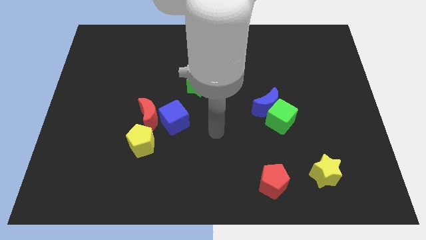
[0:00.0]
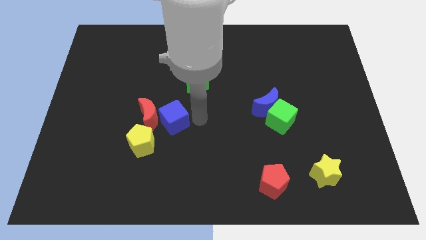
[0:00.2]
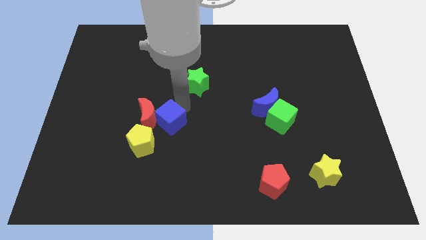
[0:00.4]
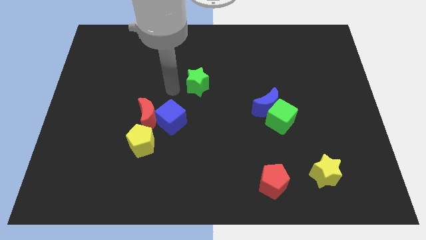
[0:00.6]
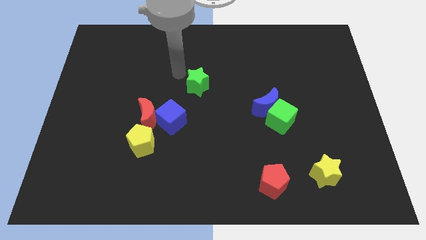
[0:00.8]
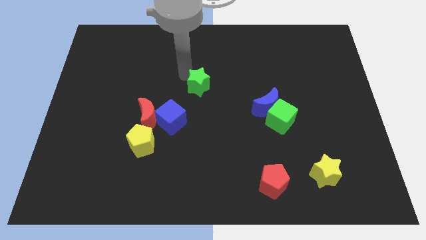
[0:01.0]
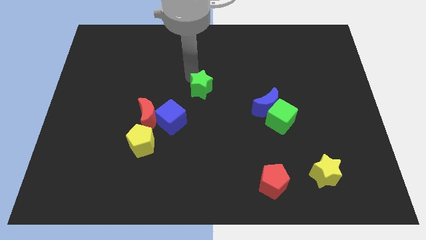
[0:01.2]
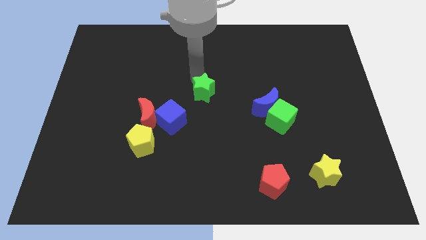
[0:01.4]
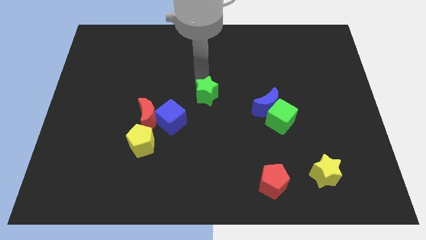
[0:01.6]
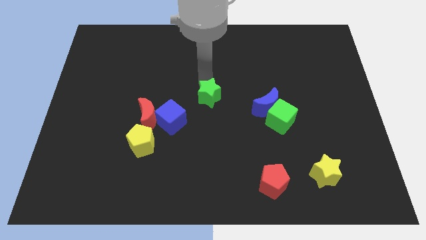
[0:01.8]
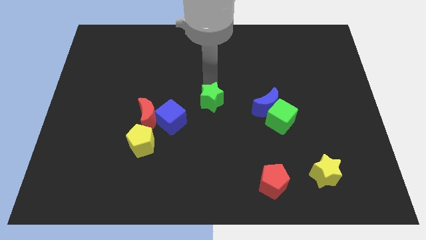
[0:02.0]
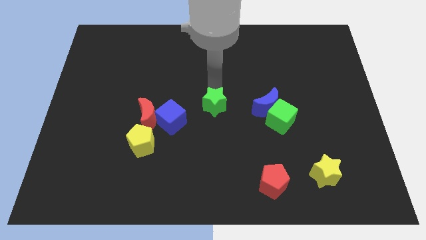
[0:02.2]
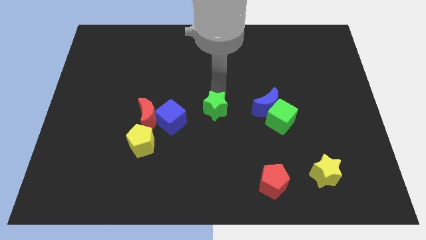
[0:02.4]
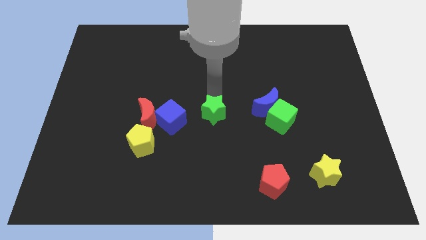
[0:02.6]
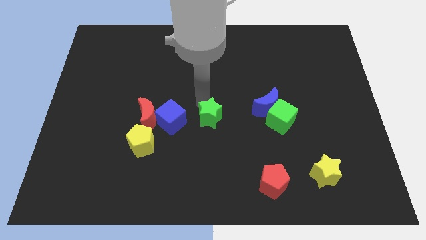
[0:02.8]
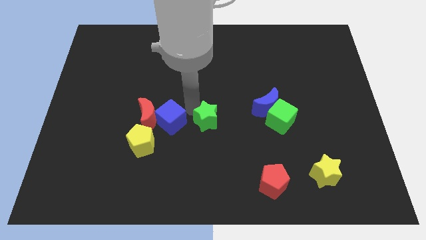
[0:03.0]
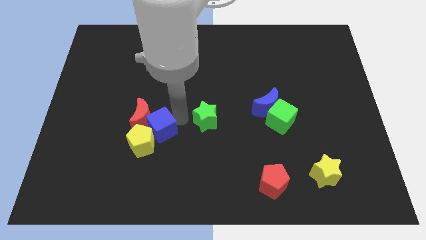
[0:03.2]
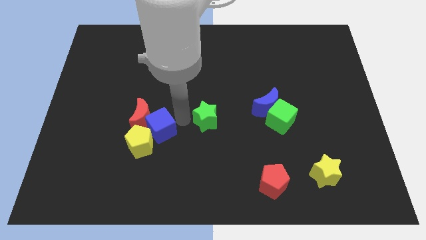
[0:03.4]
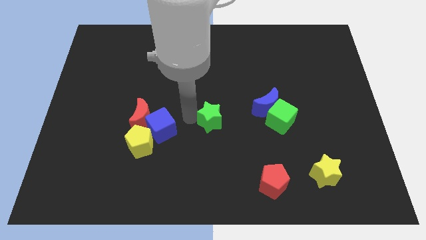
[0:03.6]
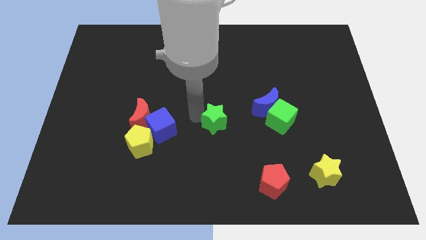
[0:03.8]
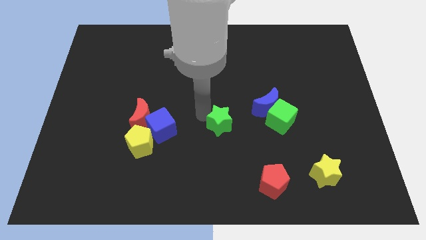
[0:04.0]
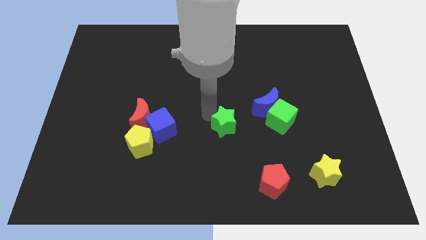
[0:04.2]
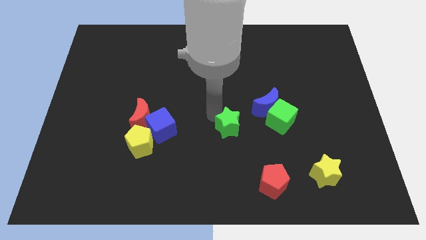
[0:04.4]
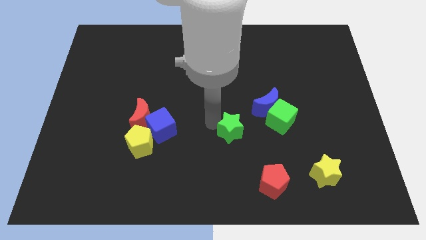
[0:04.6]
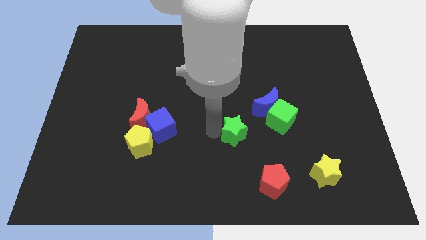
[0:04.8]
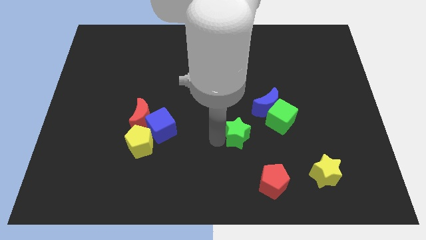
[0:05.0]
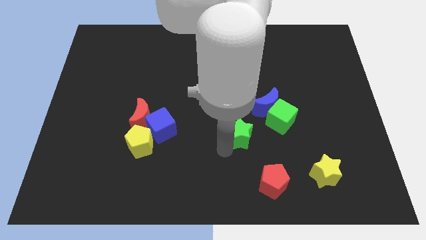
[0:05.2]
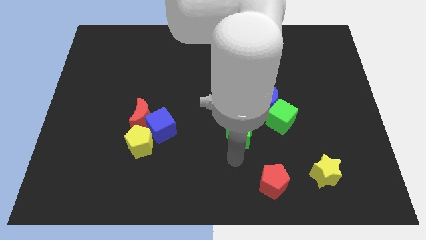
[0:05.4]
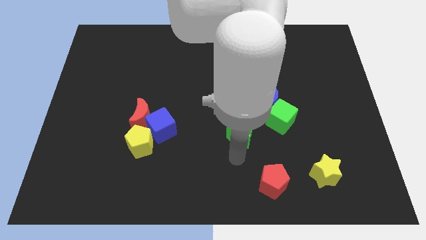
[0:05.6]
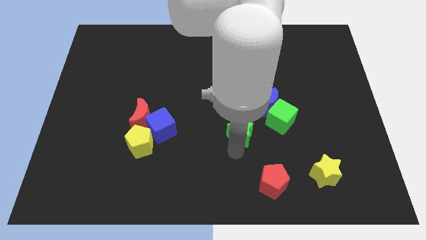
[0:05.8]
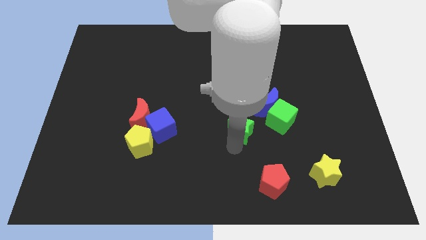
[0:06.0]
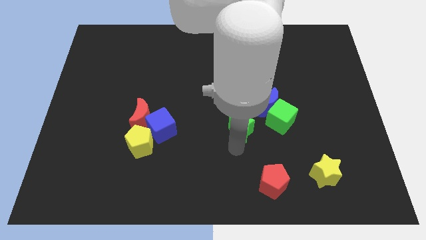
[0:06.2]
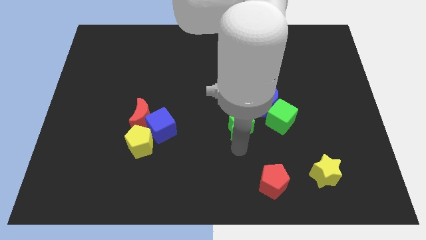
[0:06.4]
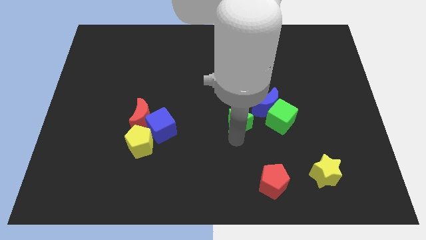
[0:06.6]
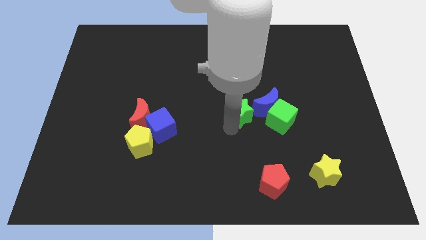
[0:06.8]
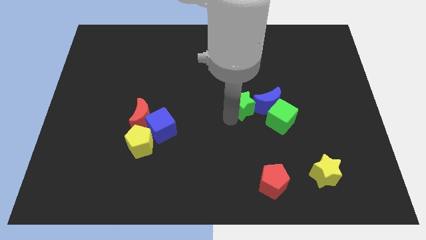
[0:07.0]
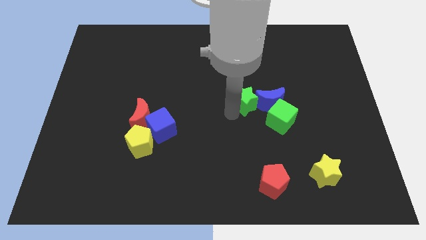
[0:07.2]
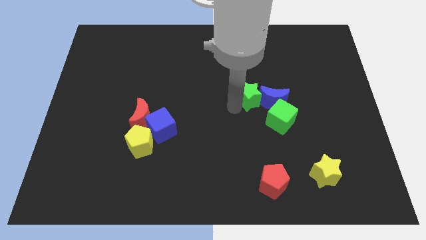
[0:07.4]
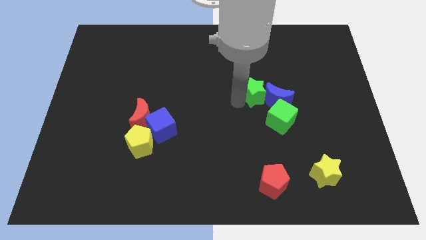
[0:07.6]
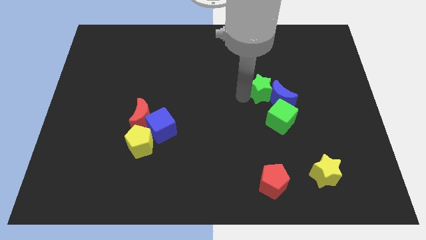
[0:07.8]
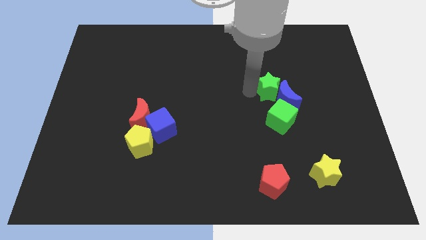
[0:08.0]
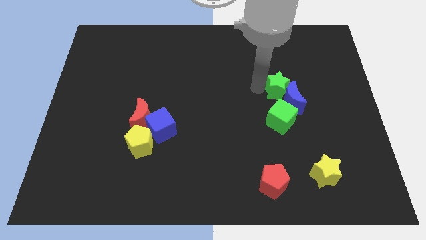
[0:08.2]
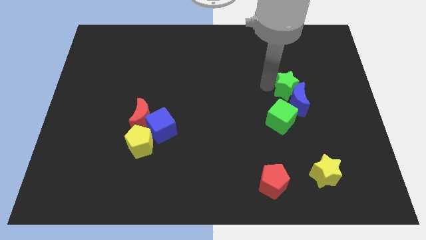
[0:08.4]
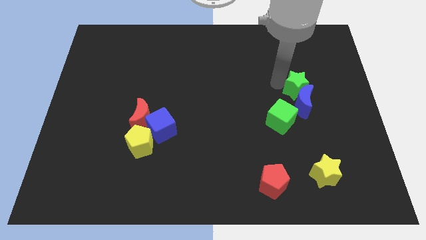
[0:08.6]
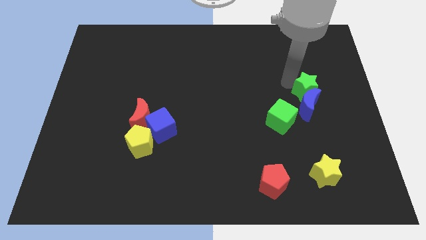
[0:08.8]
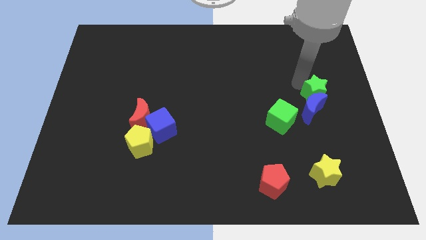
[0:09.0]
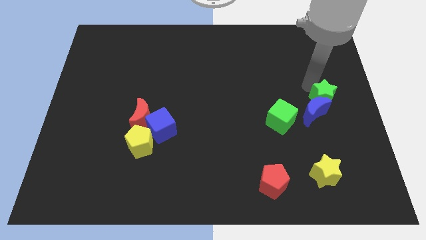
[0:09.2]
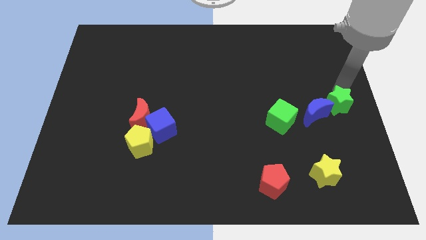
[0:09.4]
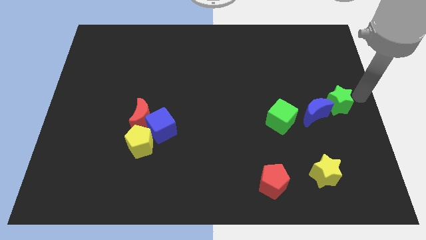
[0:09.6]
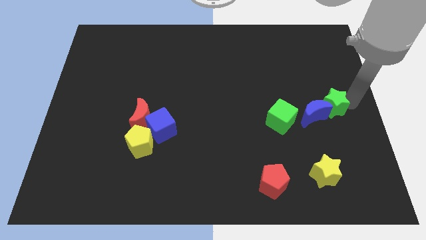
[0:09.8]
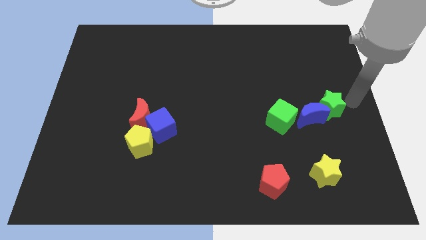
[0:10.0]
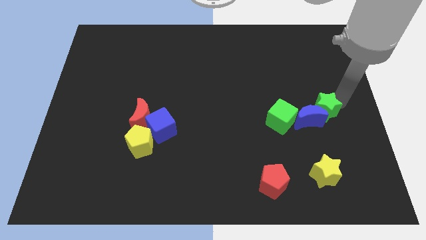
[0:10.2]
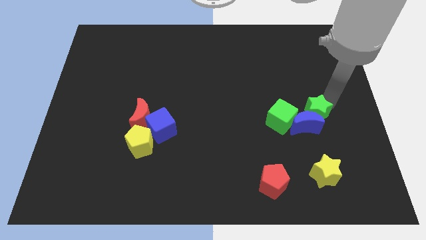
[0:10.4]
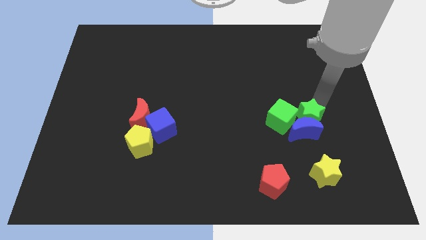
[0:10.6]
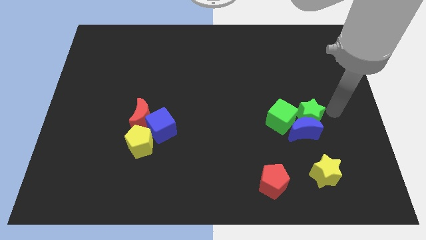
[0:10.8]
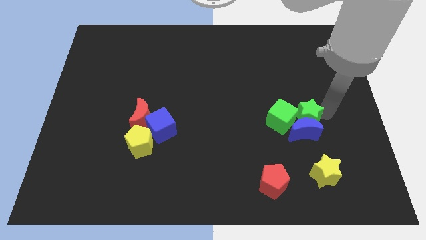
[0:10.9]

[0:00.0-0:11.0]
slide the green star to the green cube

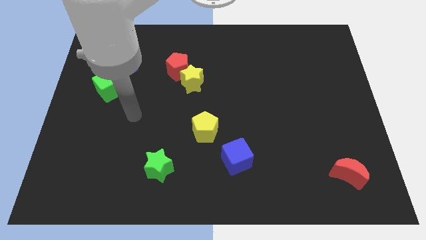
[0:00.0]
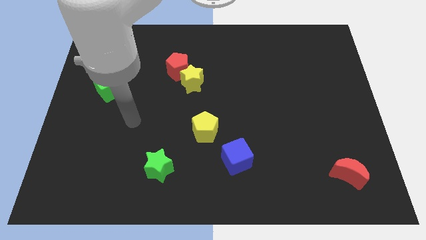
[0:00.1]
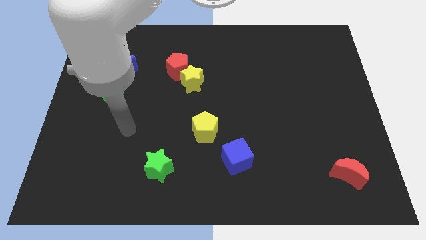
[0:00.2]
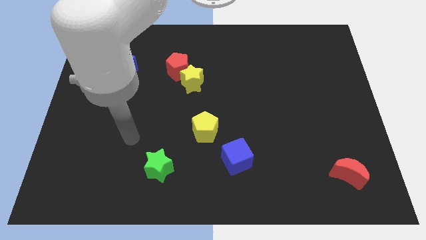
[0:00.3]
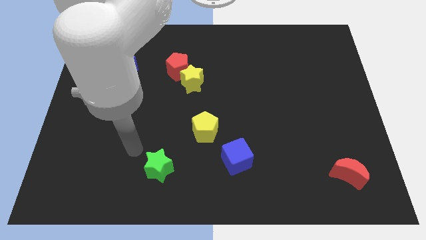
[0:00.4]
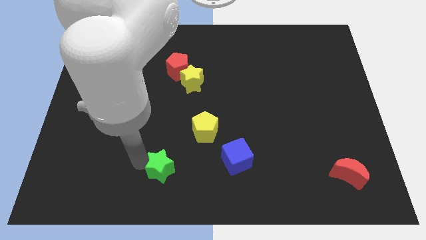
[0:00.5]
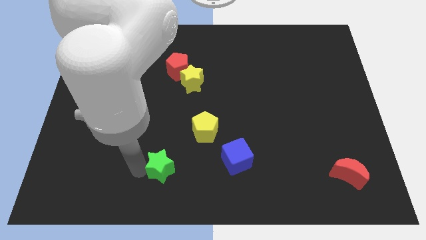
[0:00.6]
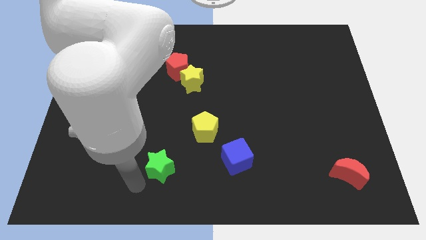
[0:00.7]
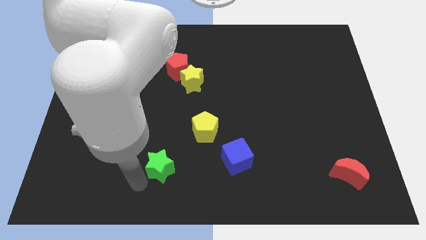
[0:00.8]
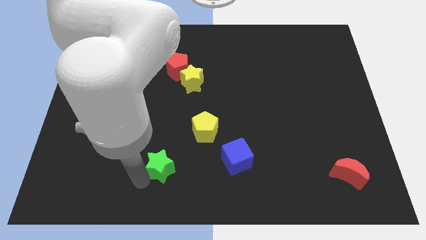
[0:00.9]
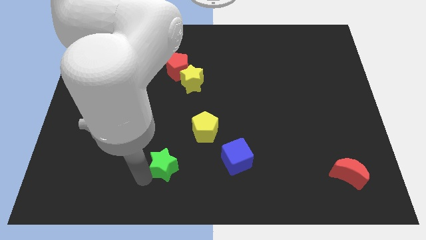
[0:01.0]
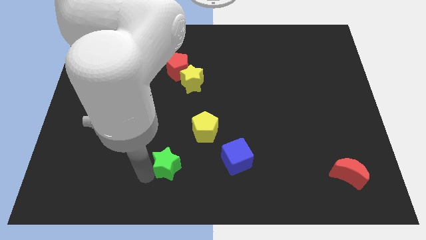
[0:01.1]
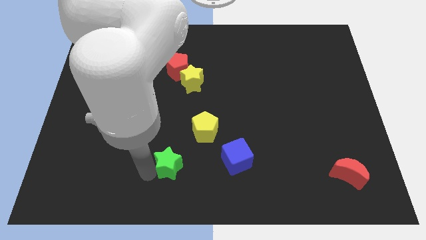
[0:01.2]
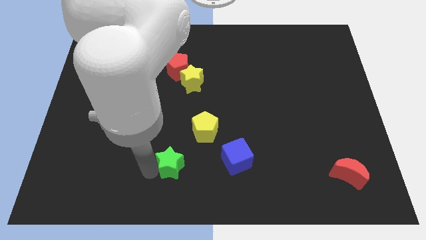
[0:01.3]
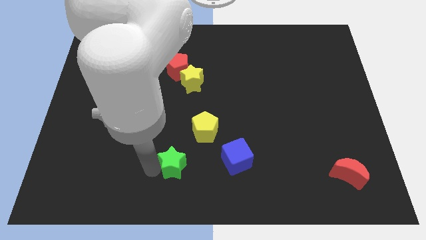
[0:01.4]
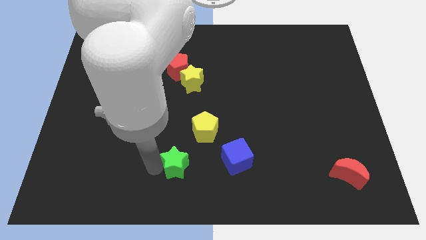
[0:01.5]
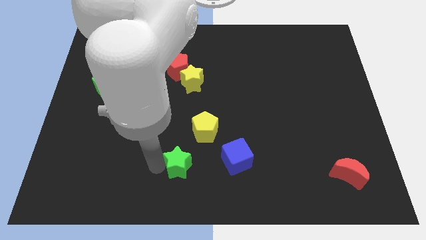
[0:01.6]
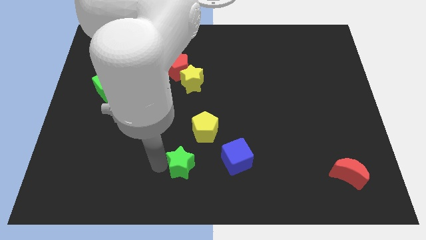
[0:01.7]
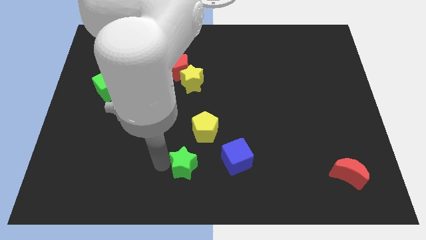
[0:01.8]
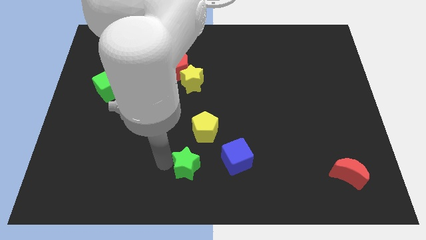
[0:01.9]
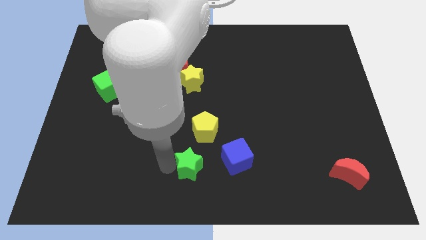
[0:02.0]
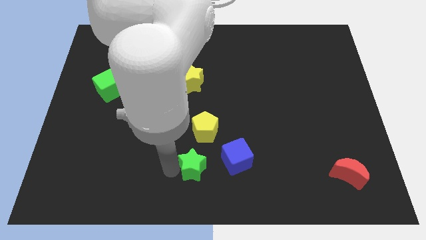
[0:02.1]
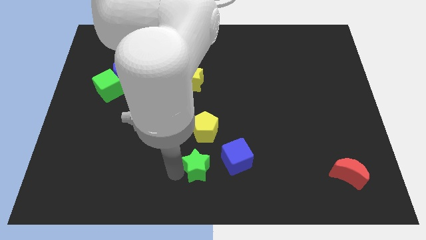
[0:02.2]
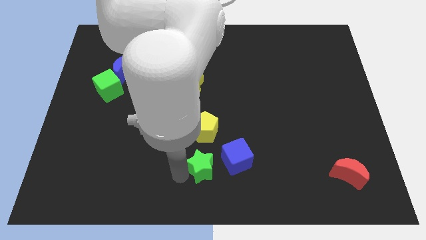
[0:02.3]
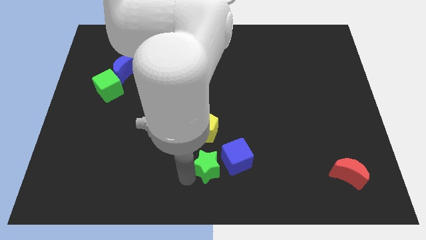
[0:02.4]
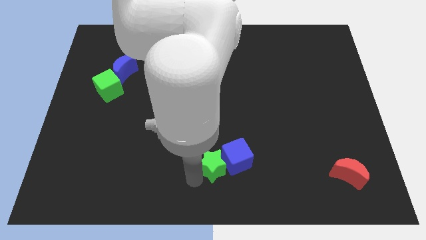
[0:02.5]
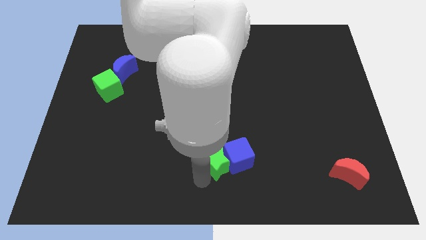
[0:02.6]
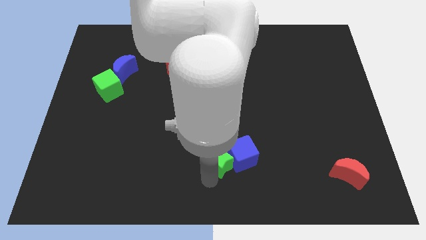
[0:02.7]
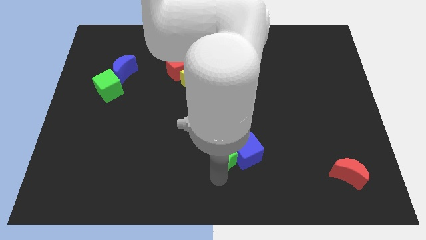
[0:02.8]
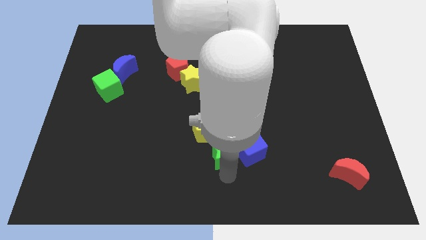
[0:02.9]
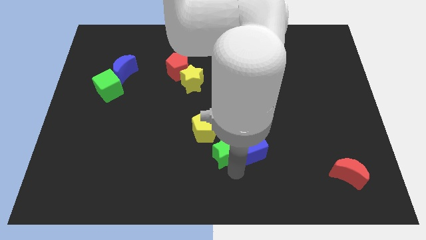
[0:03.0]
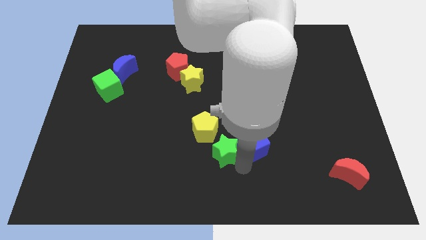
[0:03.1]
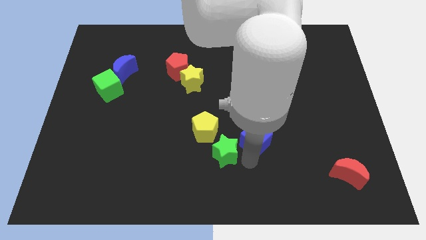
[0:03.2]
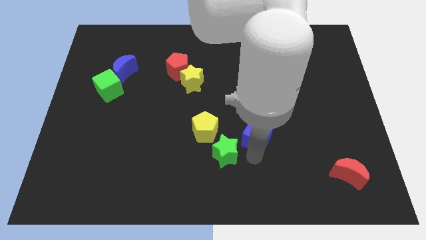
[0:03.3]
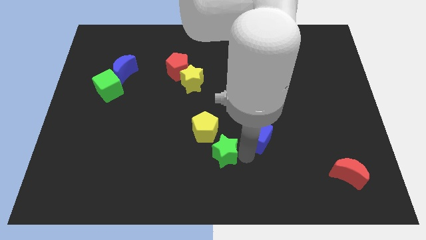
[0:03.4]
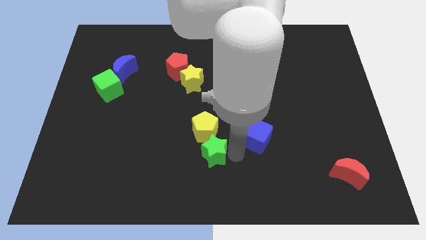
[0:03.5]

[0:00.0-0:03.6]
put the green star towards the yellow pentagon
